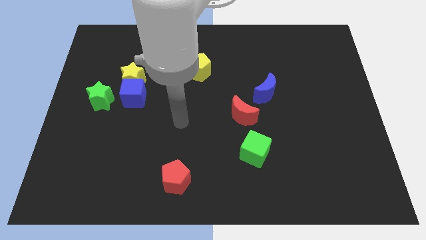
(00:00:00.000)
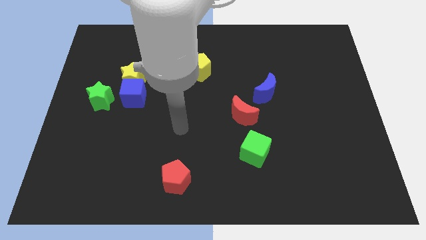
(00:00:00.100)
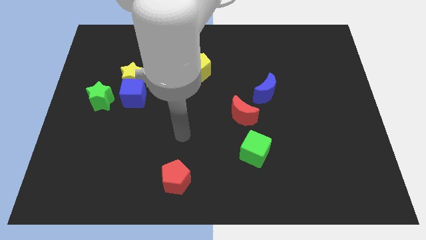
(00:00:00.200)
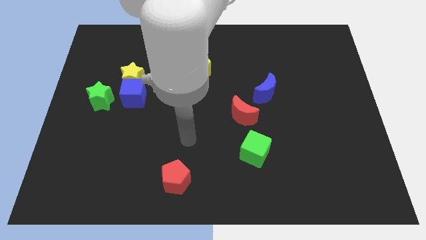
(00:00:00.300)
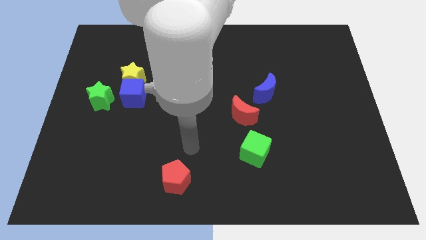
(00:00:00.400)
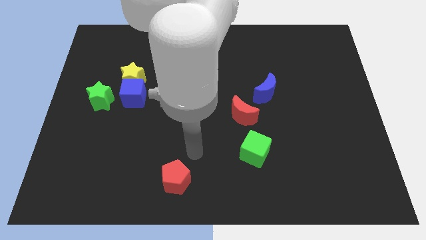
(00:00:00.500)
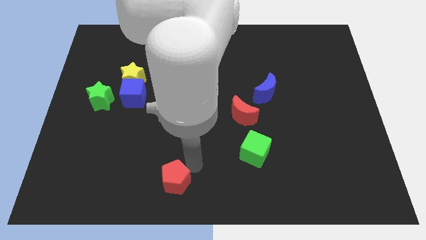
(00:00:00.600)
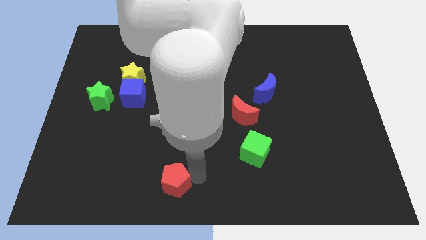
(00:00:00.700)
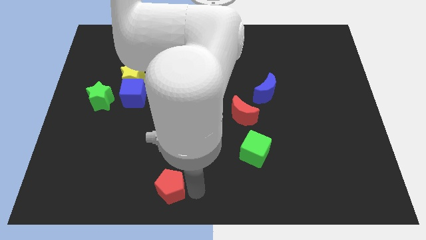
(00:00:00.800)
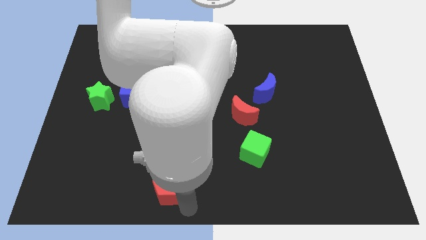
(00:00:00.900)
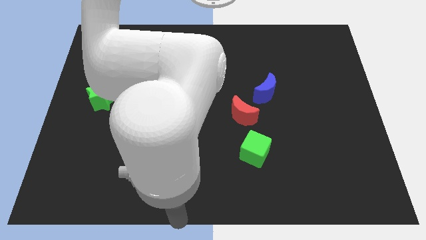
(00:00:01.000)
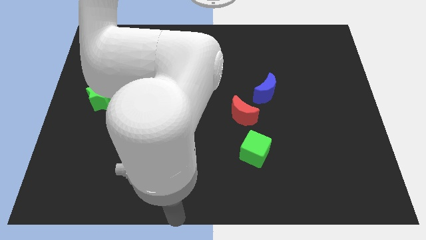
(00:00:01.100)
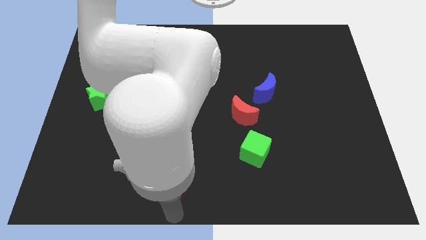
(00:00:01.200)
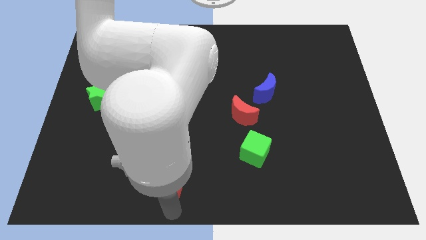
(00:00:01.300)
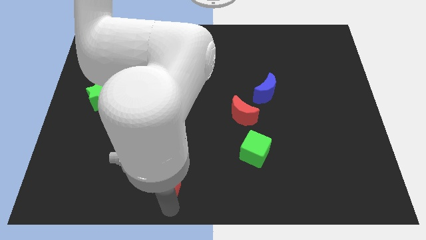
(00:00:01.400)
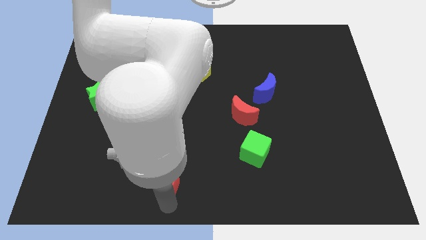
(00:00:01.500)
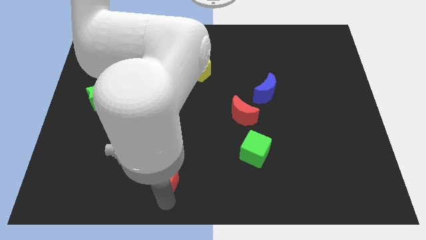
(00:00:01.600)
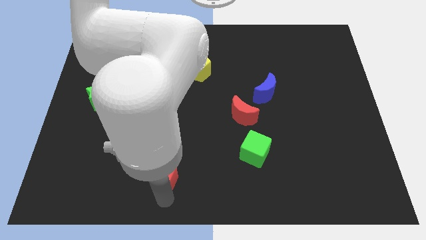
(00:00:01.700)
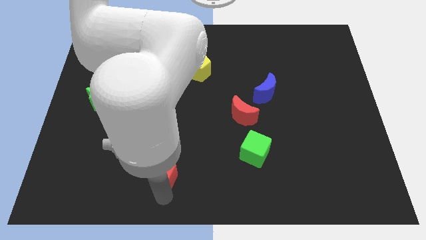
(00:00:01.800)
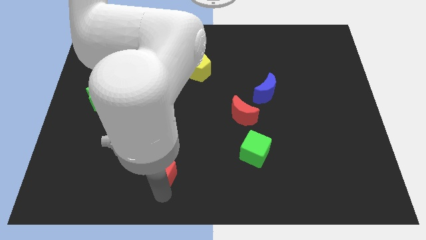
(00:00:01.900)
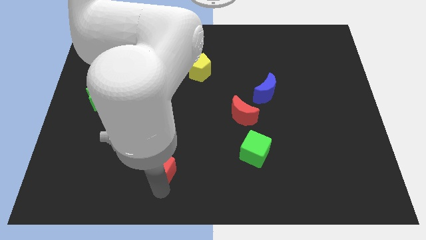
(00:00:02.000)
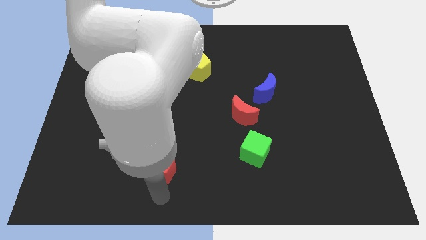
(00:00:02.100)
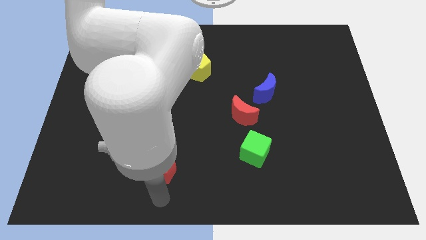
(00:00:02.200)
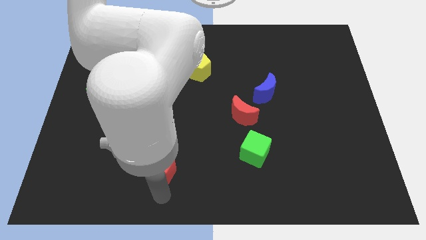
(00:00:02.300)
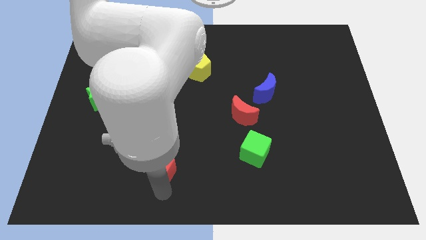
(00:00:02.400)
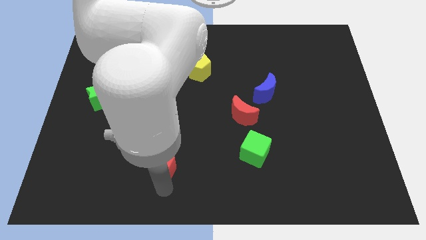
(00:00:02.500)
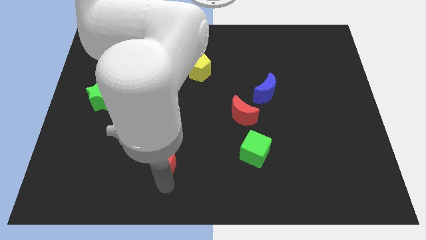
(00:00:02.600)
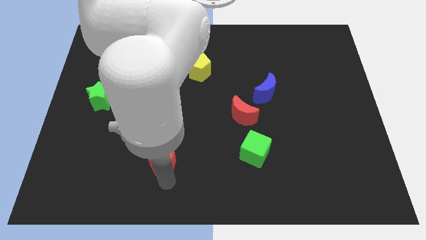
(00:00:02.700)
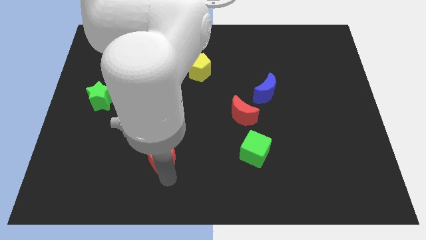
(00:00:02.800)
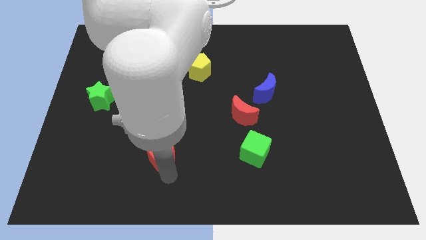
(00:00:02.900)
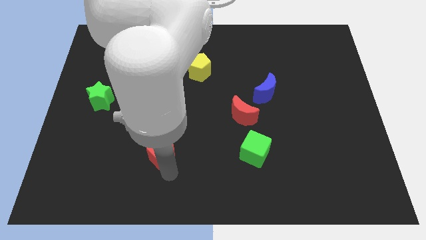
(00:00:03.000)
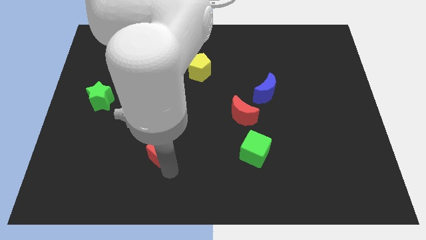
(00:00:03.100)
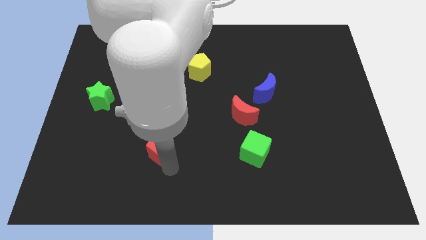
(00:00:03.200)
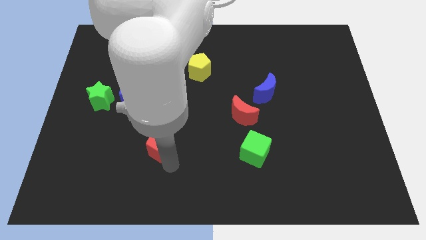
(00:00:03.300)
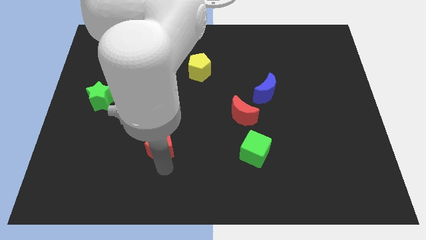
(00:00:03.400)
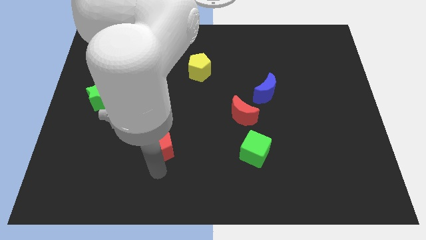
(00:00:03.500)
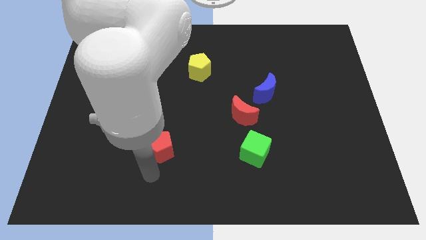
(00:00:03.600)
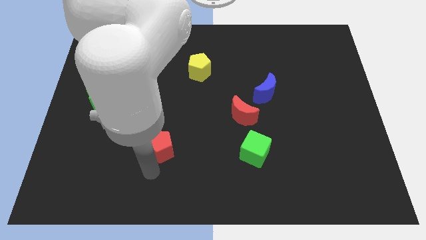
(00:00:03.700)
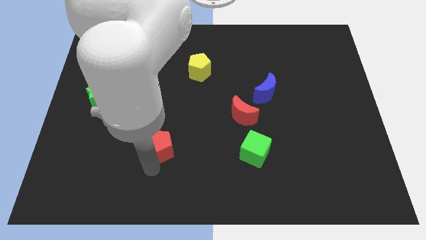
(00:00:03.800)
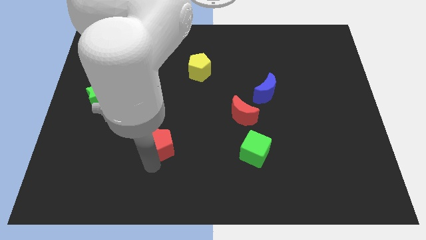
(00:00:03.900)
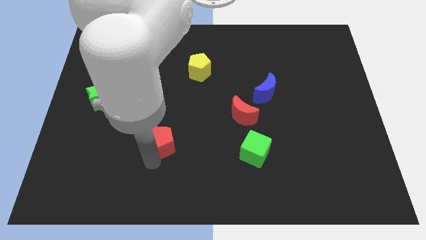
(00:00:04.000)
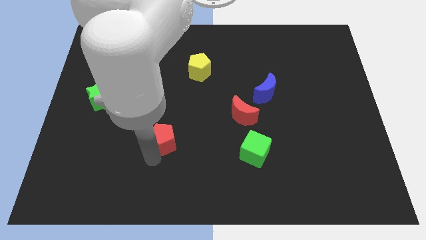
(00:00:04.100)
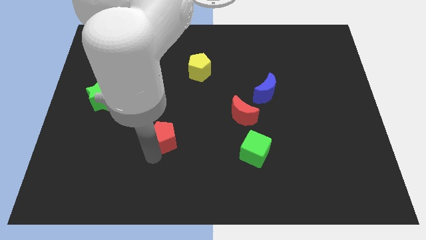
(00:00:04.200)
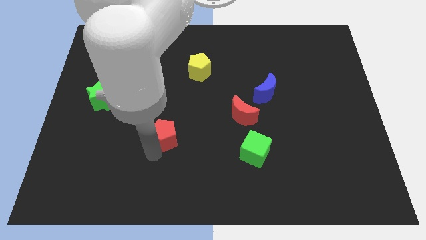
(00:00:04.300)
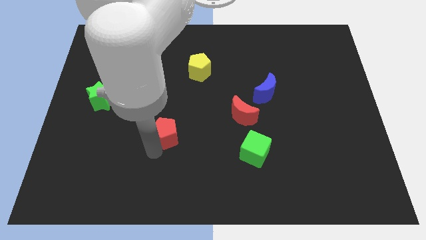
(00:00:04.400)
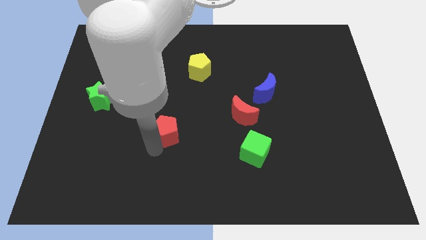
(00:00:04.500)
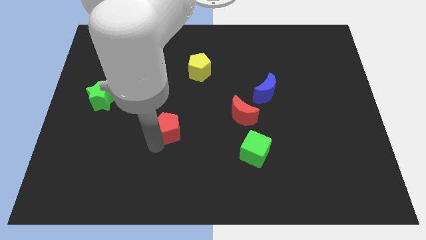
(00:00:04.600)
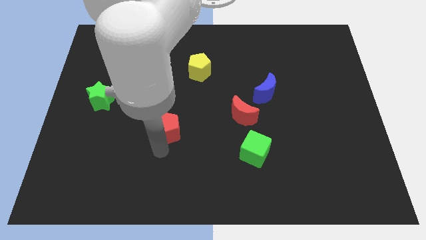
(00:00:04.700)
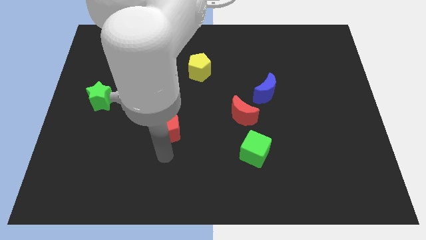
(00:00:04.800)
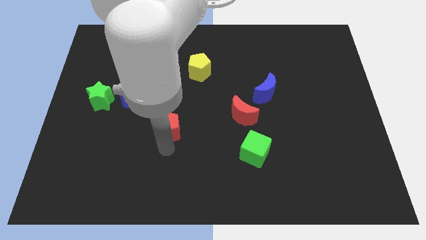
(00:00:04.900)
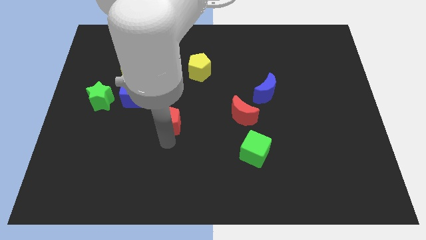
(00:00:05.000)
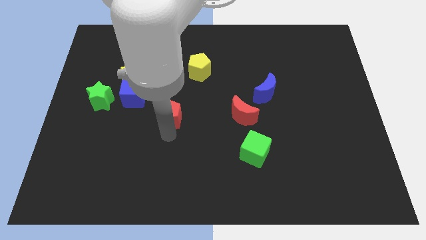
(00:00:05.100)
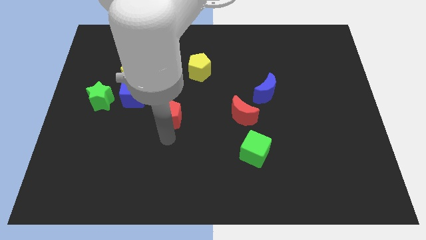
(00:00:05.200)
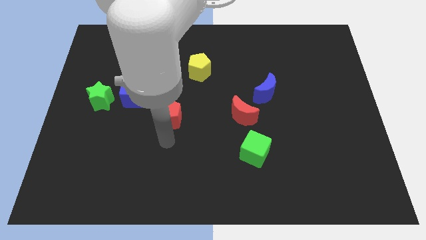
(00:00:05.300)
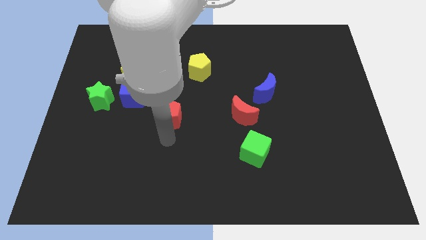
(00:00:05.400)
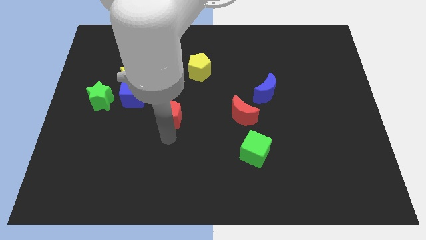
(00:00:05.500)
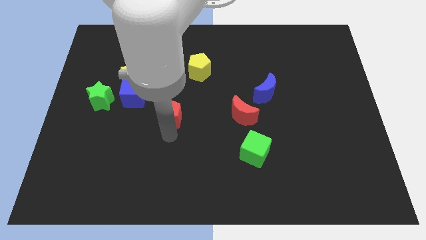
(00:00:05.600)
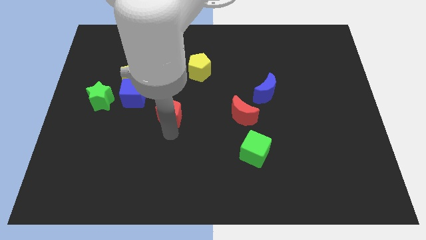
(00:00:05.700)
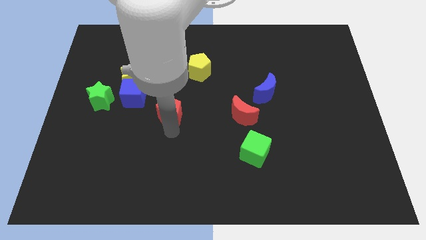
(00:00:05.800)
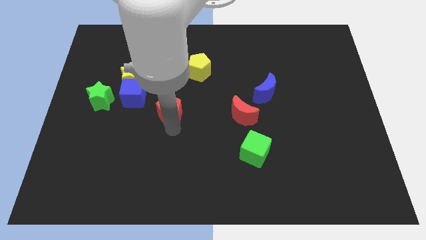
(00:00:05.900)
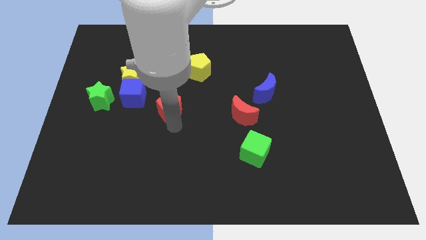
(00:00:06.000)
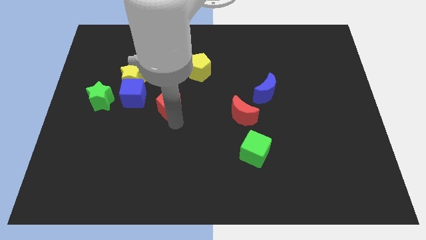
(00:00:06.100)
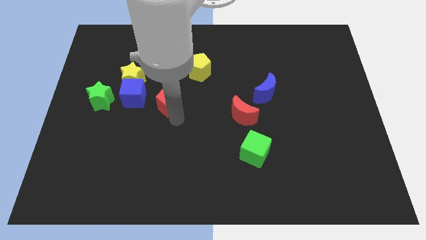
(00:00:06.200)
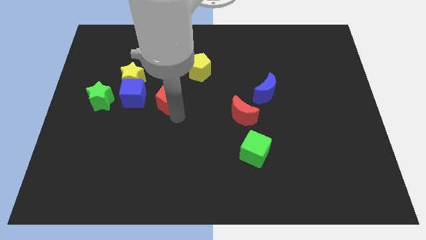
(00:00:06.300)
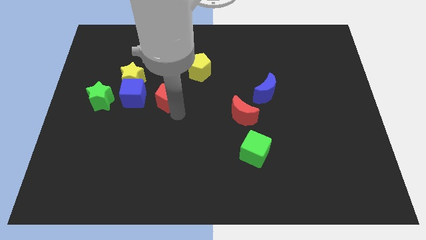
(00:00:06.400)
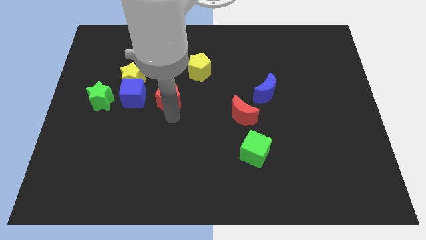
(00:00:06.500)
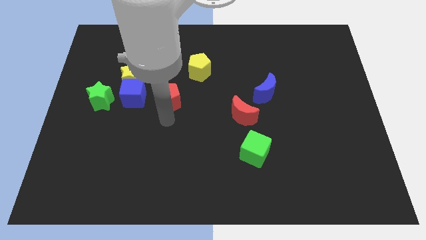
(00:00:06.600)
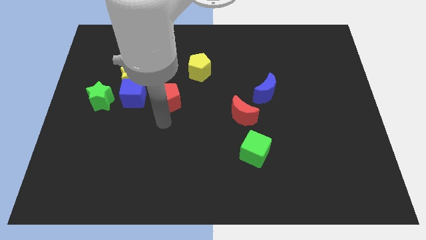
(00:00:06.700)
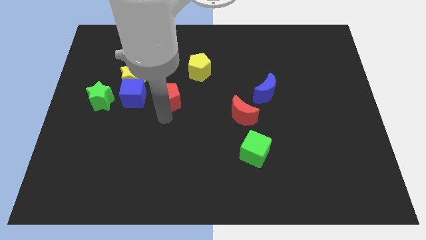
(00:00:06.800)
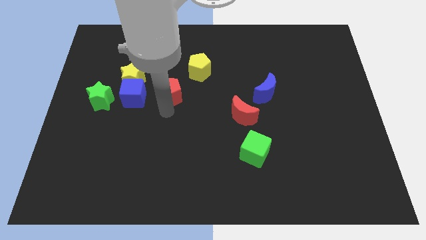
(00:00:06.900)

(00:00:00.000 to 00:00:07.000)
move the red pentagon to the right of the yellow star
